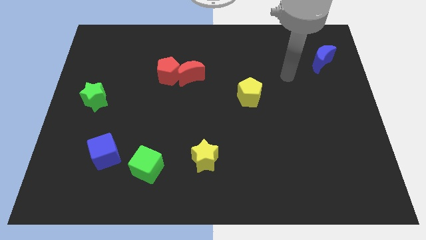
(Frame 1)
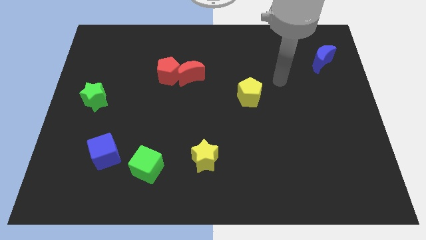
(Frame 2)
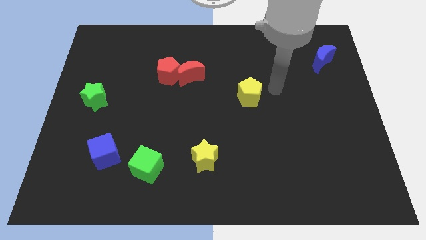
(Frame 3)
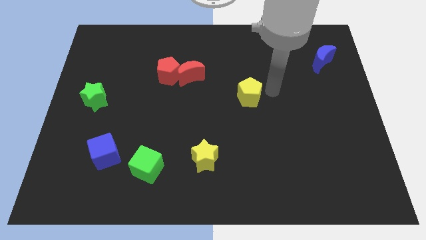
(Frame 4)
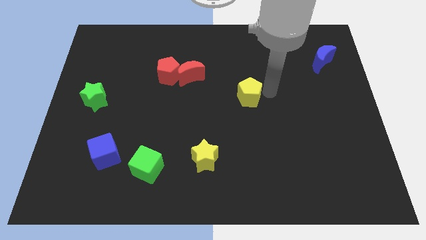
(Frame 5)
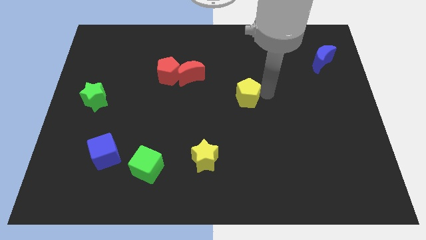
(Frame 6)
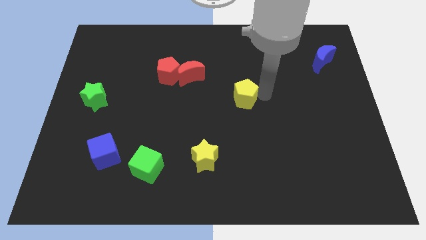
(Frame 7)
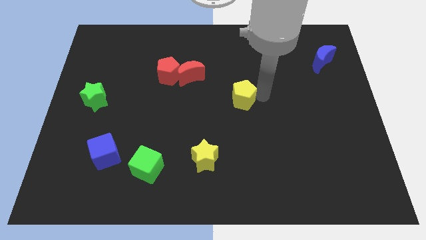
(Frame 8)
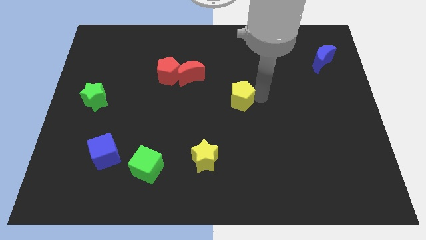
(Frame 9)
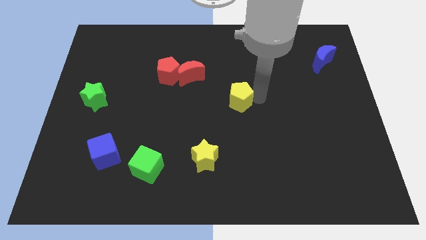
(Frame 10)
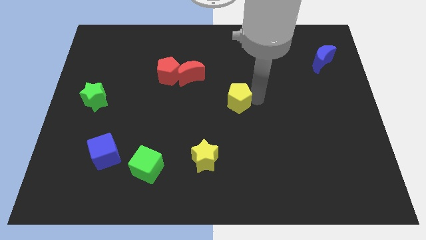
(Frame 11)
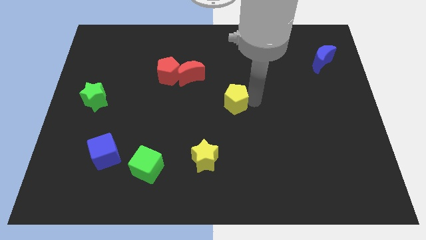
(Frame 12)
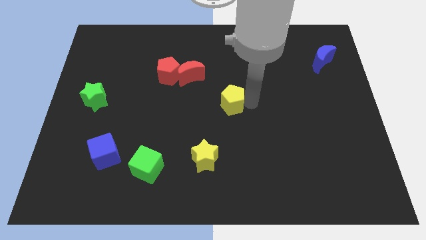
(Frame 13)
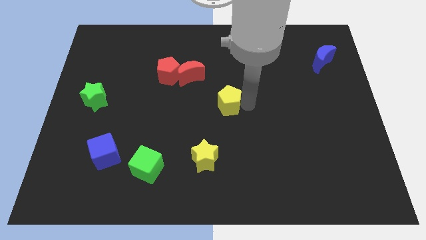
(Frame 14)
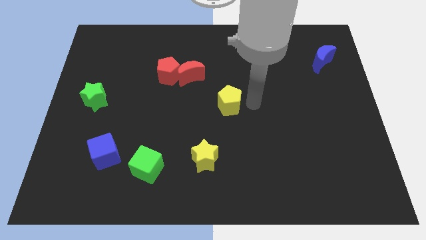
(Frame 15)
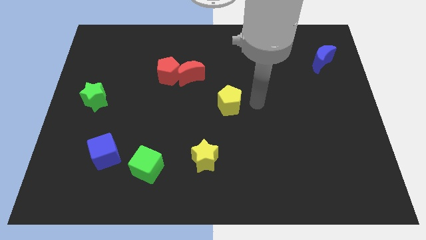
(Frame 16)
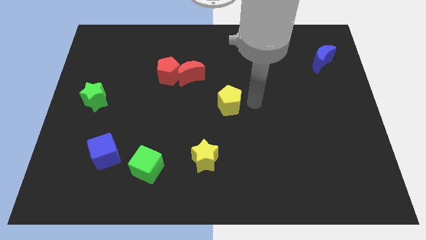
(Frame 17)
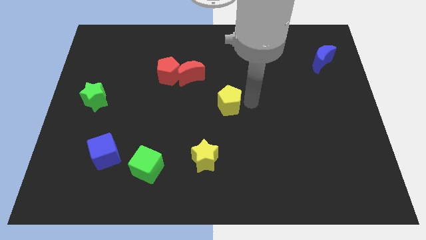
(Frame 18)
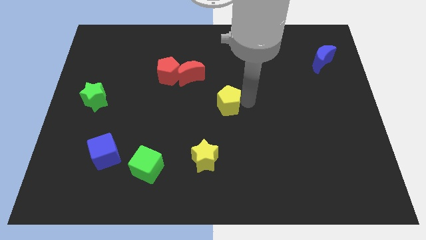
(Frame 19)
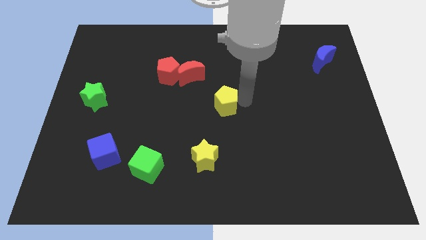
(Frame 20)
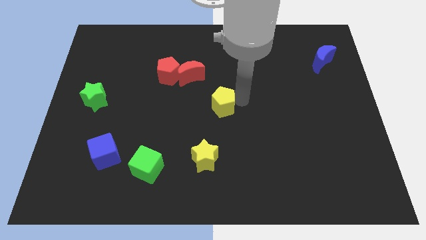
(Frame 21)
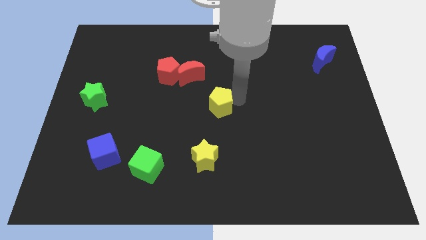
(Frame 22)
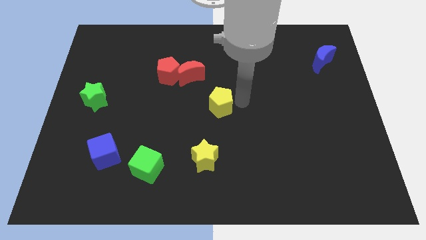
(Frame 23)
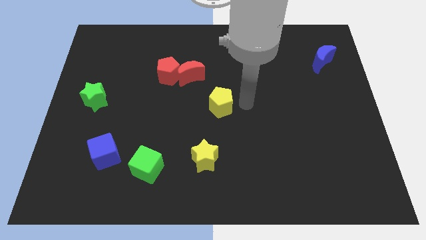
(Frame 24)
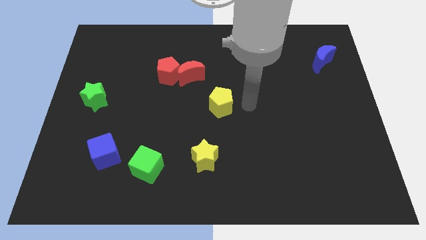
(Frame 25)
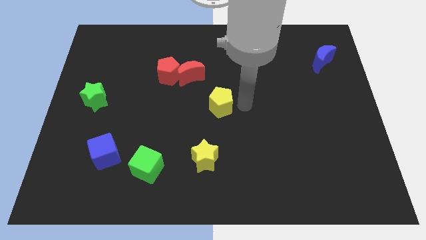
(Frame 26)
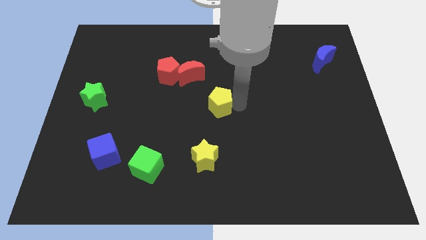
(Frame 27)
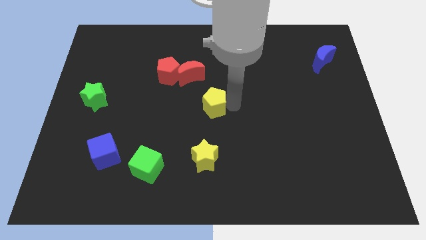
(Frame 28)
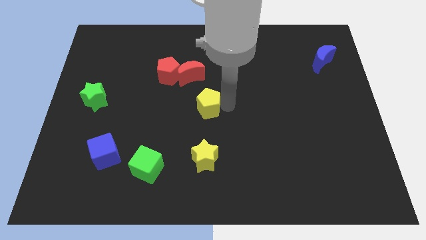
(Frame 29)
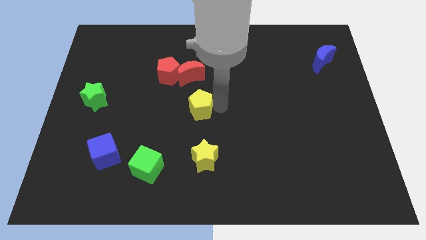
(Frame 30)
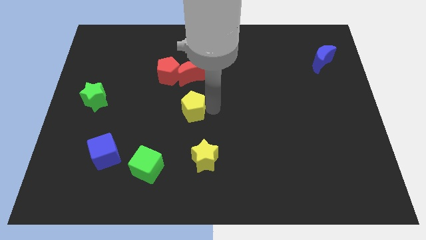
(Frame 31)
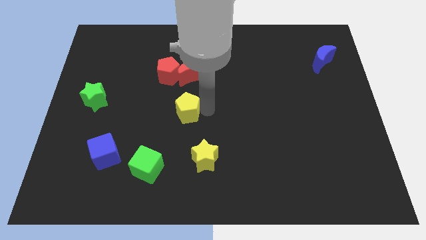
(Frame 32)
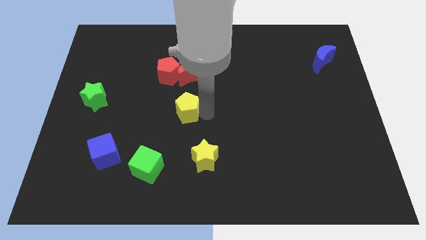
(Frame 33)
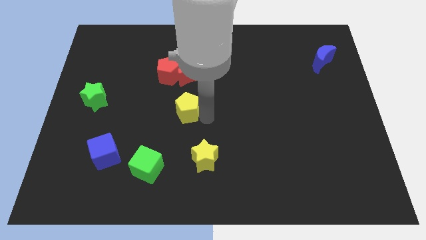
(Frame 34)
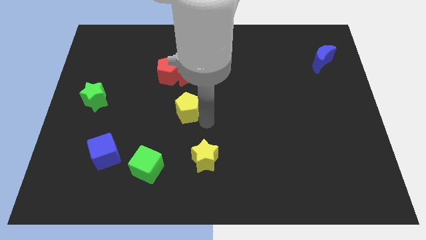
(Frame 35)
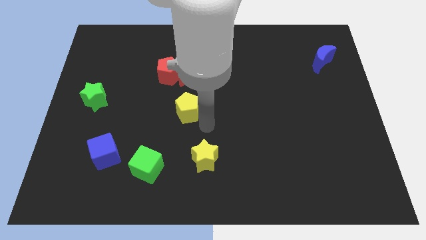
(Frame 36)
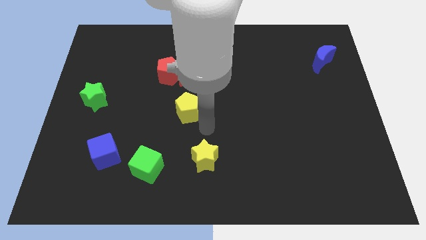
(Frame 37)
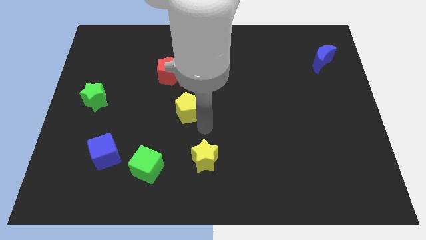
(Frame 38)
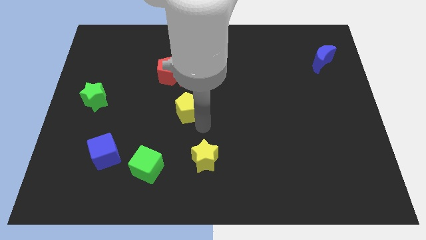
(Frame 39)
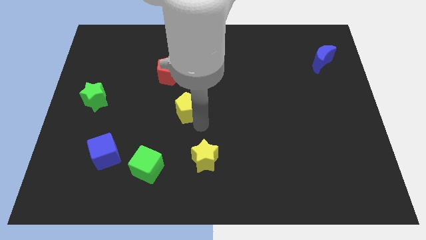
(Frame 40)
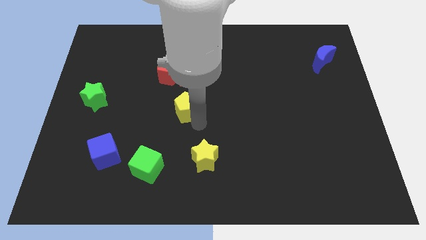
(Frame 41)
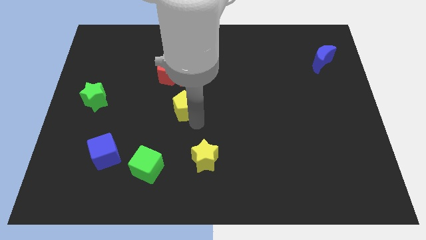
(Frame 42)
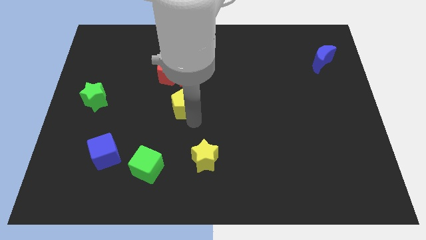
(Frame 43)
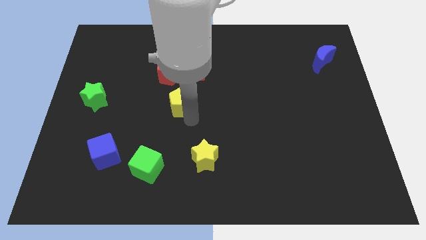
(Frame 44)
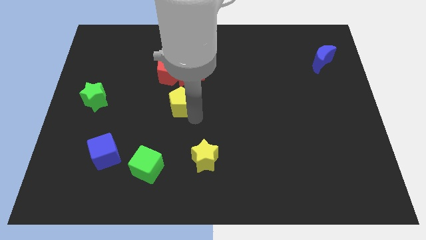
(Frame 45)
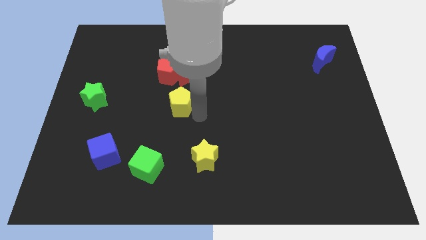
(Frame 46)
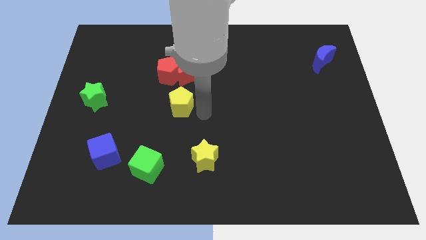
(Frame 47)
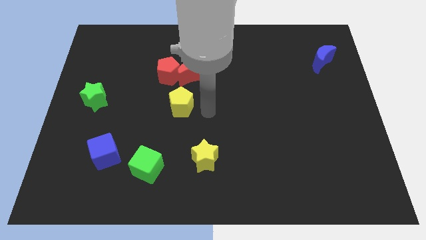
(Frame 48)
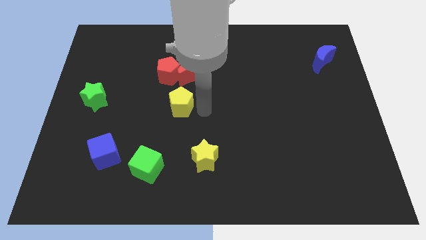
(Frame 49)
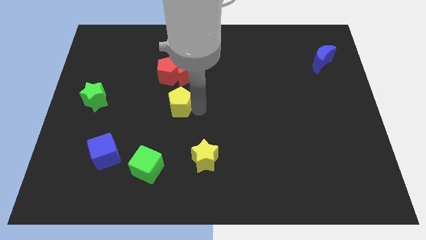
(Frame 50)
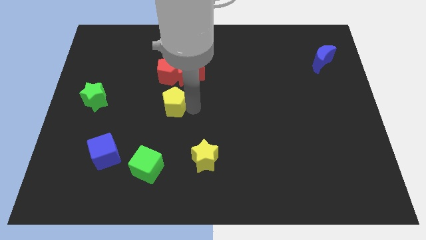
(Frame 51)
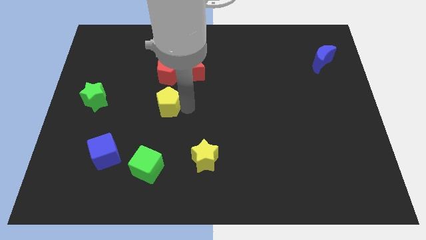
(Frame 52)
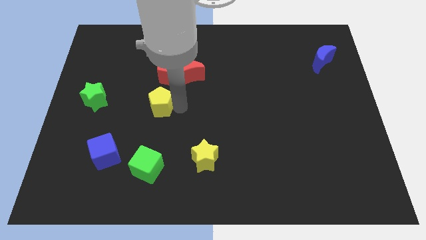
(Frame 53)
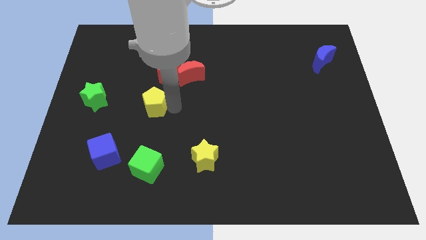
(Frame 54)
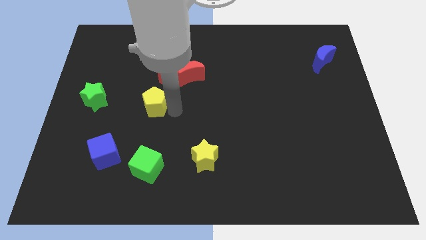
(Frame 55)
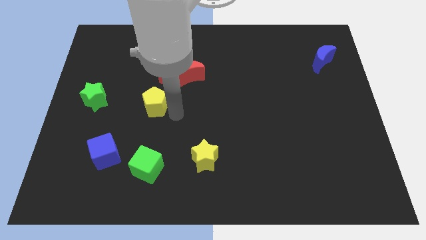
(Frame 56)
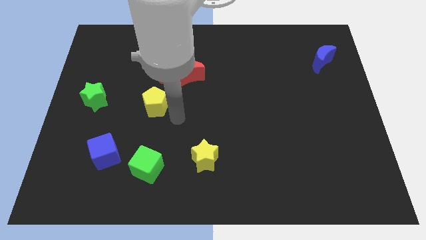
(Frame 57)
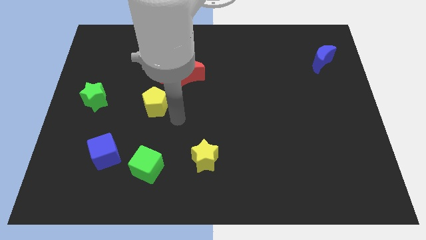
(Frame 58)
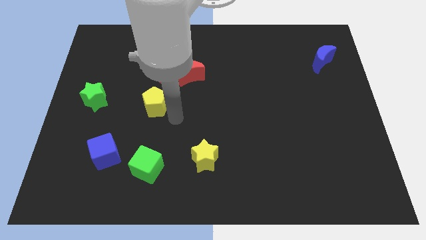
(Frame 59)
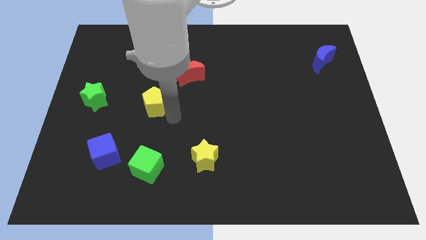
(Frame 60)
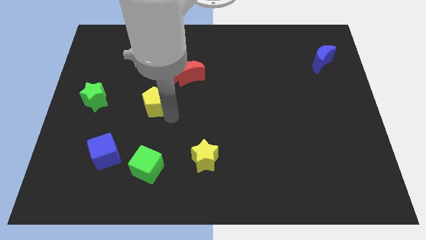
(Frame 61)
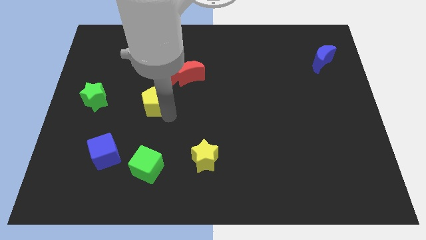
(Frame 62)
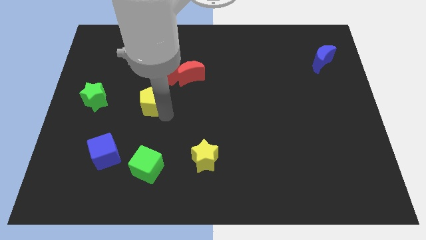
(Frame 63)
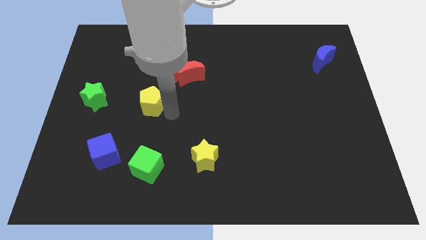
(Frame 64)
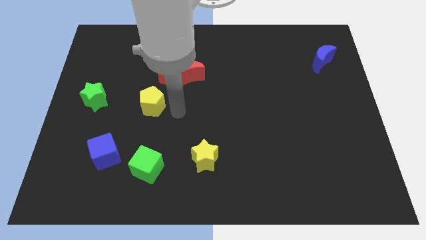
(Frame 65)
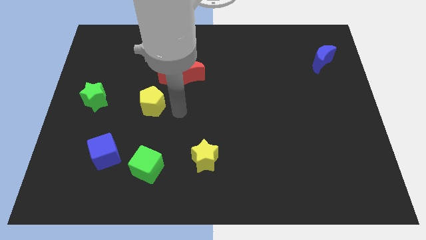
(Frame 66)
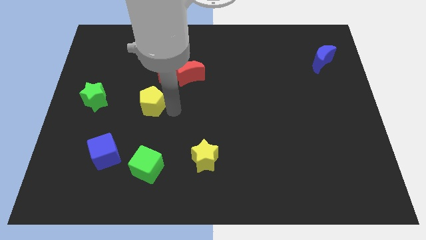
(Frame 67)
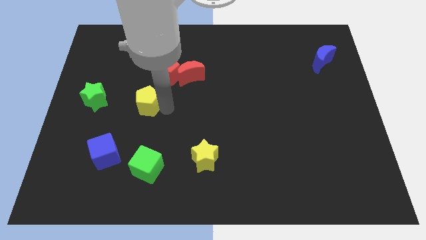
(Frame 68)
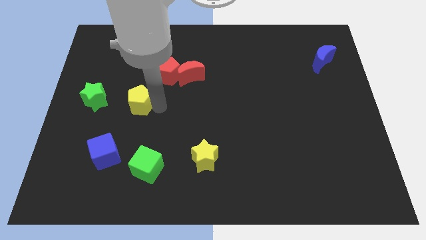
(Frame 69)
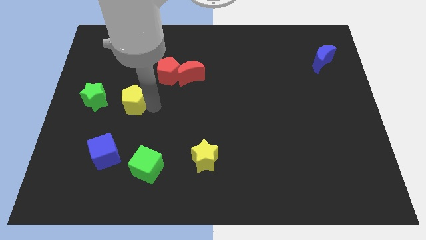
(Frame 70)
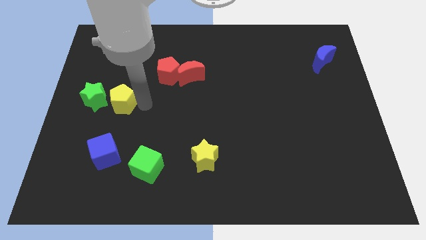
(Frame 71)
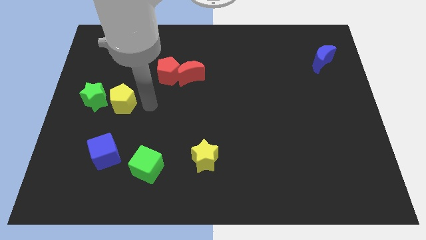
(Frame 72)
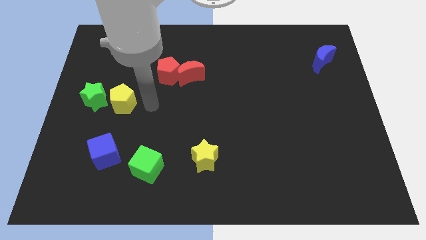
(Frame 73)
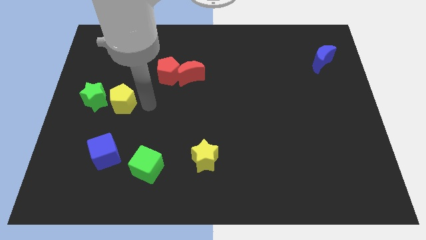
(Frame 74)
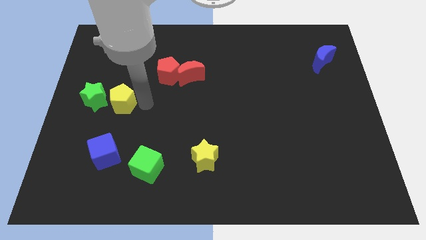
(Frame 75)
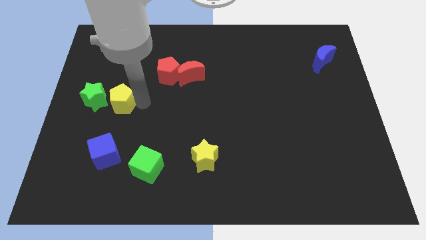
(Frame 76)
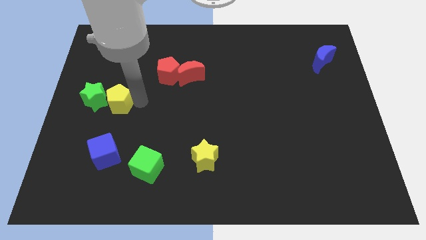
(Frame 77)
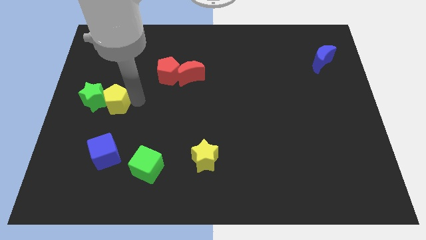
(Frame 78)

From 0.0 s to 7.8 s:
move the yellow pentagon to the green star
